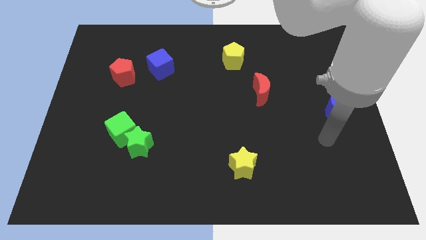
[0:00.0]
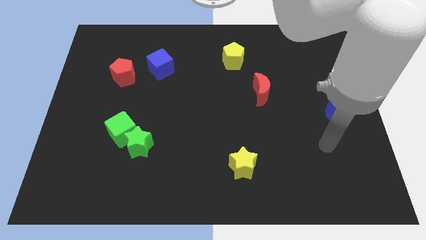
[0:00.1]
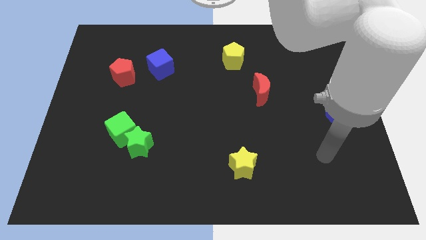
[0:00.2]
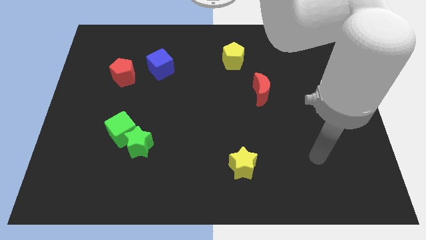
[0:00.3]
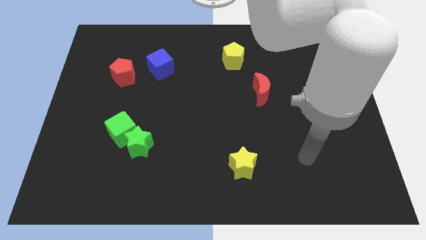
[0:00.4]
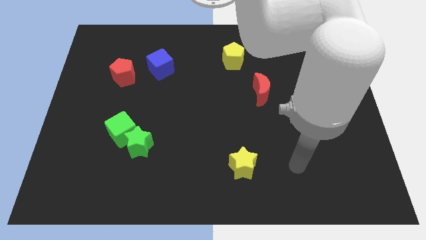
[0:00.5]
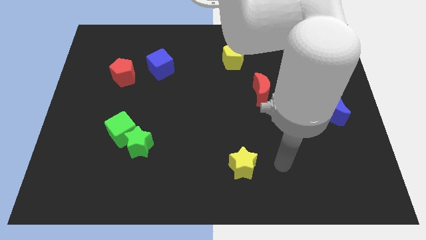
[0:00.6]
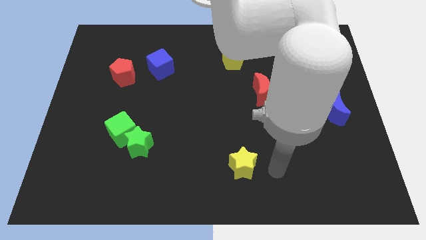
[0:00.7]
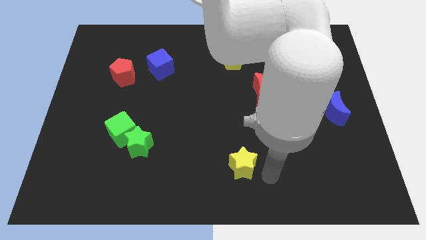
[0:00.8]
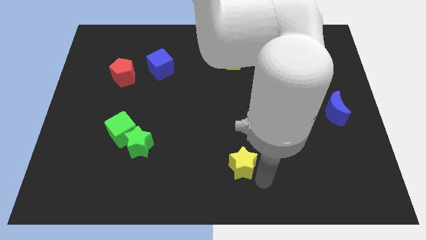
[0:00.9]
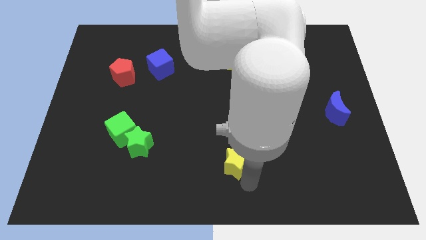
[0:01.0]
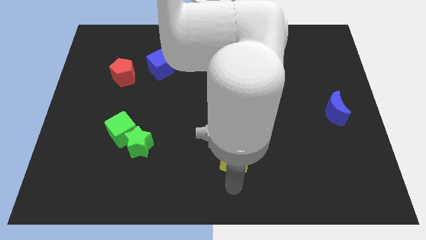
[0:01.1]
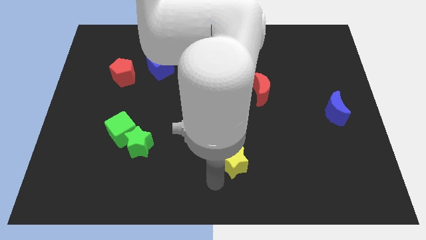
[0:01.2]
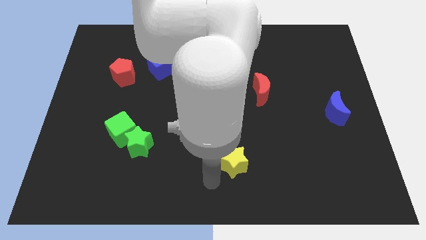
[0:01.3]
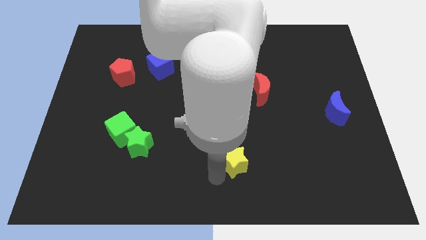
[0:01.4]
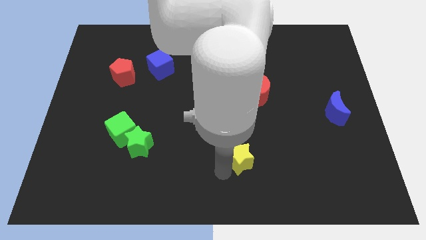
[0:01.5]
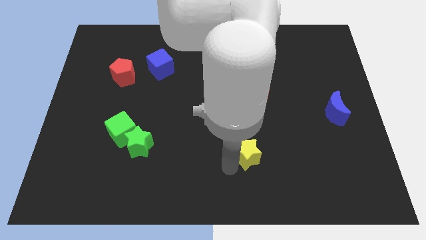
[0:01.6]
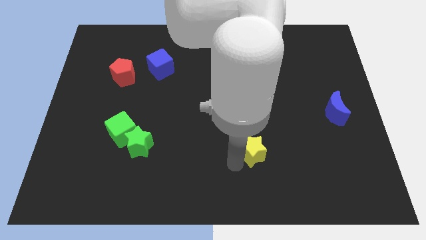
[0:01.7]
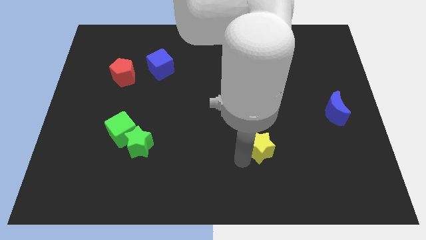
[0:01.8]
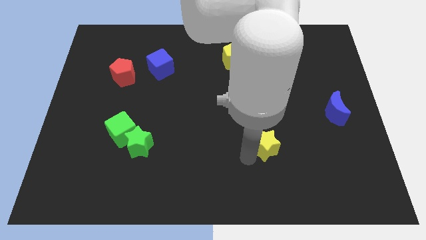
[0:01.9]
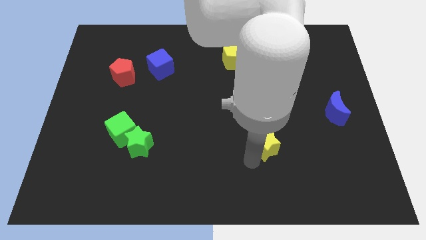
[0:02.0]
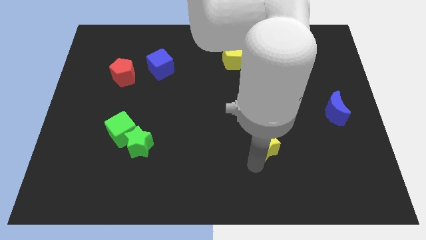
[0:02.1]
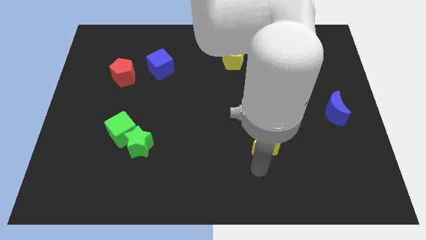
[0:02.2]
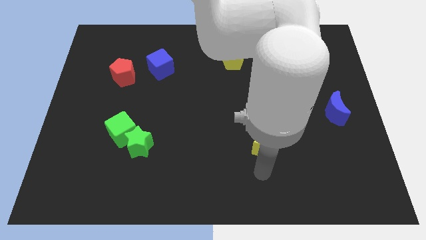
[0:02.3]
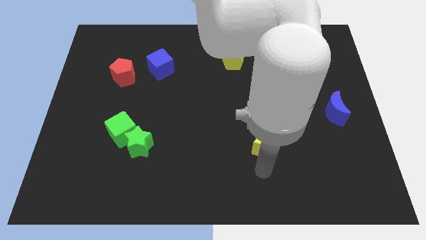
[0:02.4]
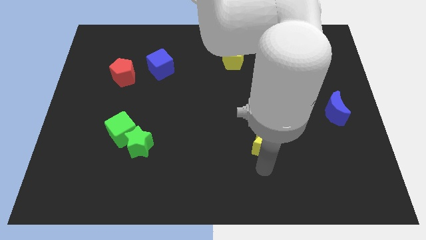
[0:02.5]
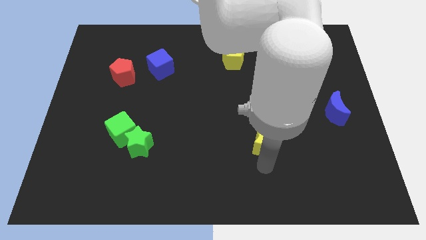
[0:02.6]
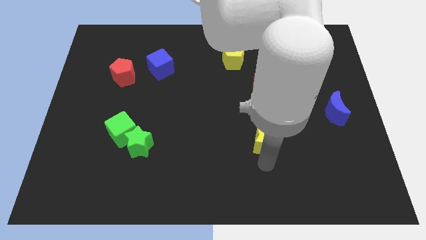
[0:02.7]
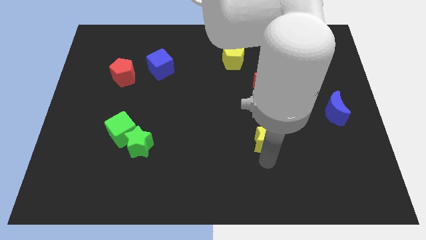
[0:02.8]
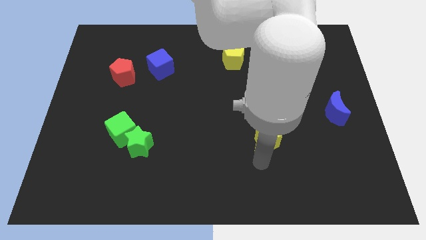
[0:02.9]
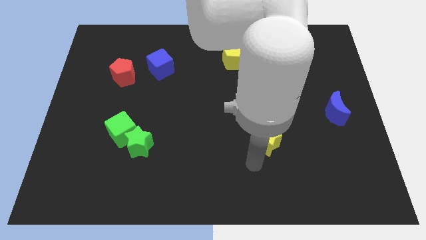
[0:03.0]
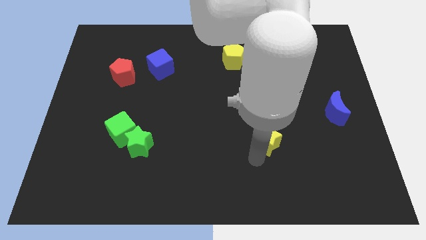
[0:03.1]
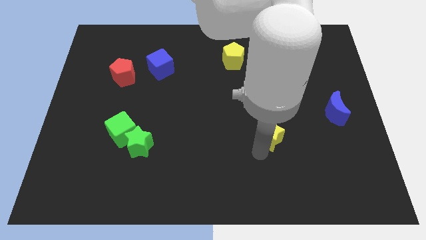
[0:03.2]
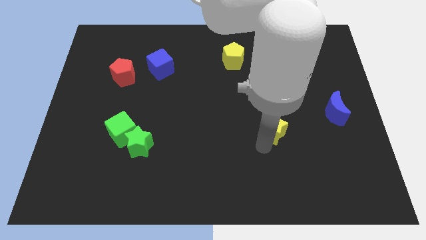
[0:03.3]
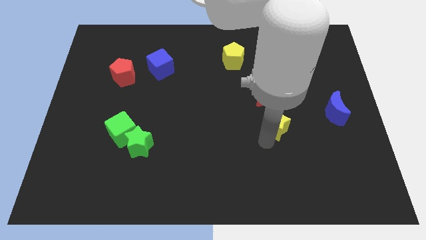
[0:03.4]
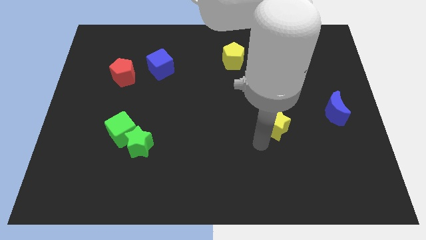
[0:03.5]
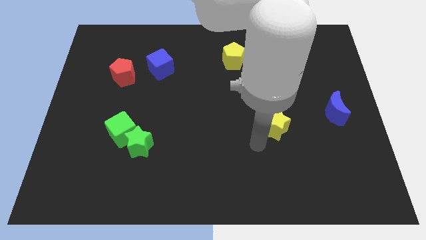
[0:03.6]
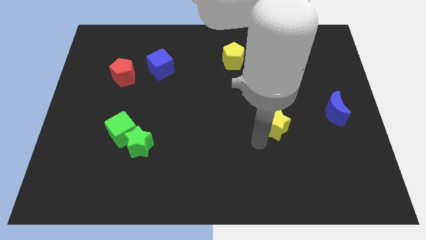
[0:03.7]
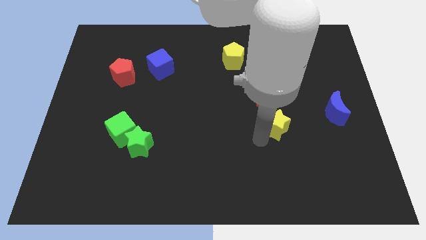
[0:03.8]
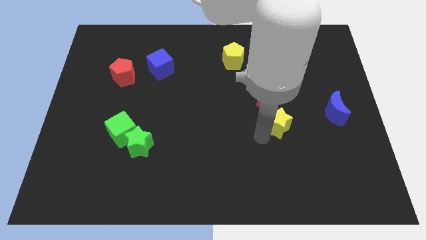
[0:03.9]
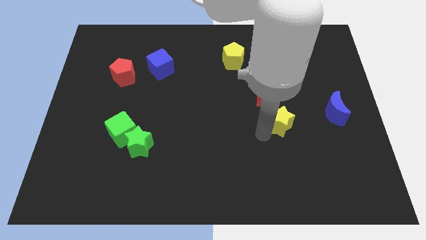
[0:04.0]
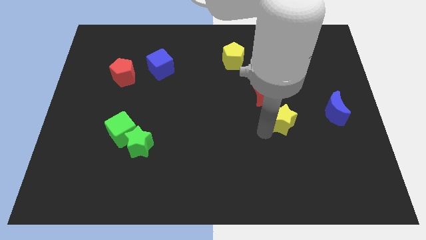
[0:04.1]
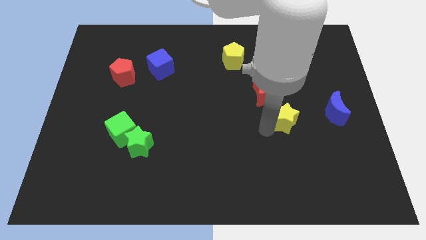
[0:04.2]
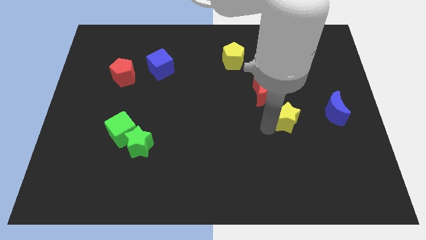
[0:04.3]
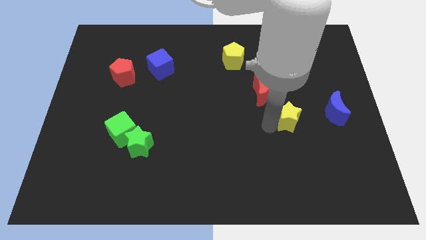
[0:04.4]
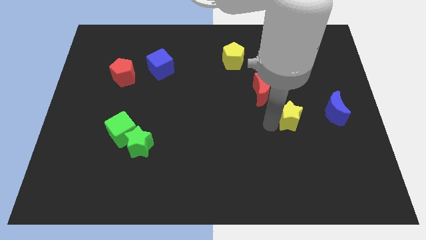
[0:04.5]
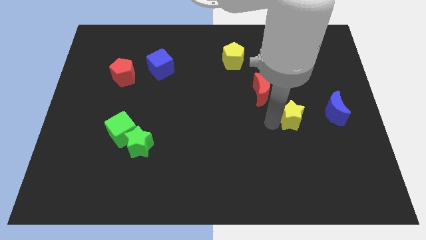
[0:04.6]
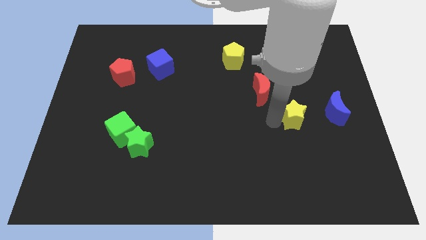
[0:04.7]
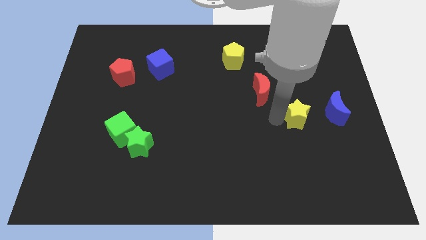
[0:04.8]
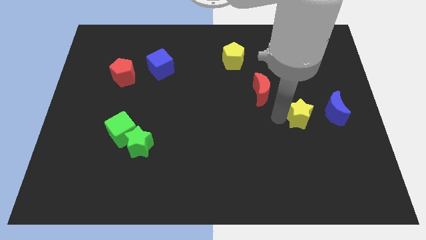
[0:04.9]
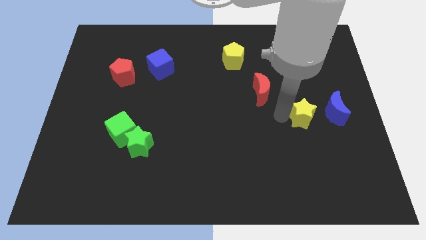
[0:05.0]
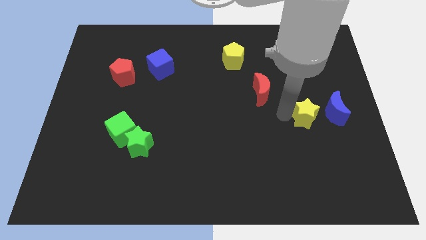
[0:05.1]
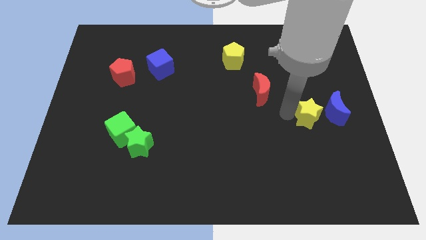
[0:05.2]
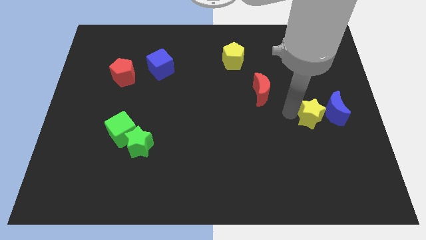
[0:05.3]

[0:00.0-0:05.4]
push the yellow star diagonally up and to the left of the blue moon

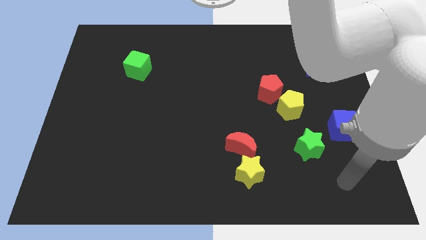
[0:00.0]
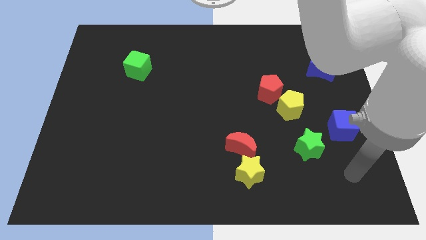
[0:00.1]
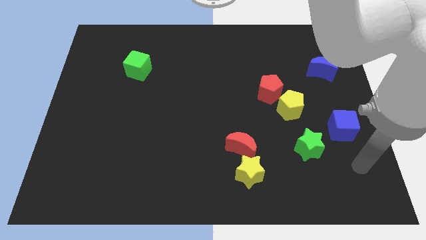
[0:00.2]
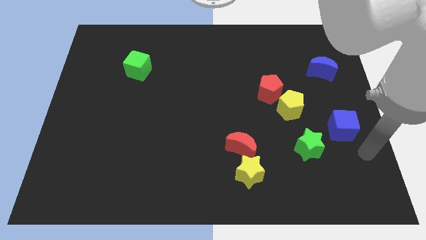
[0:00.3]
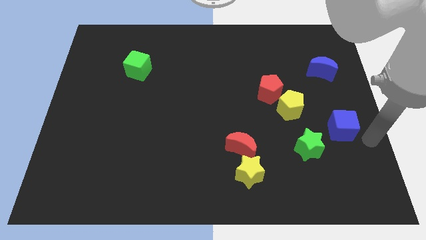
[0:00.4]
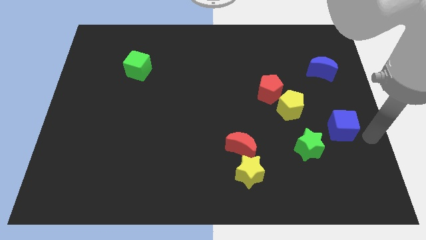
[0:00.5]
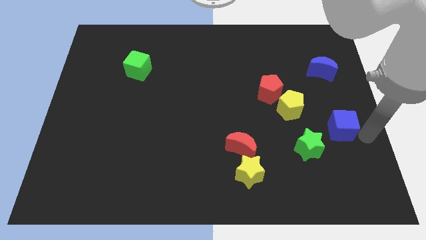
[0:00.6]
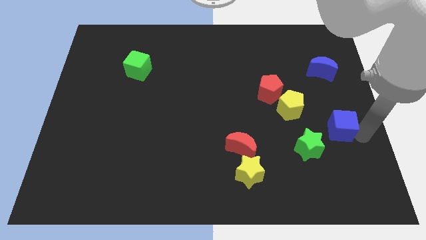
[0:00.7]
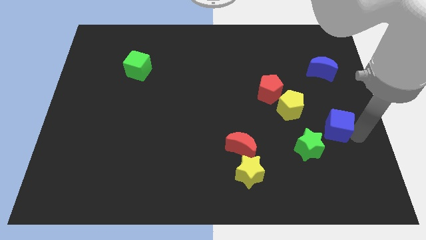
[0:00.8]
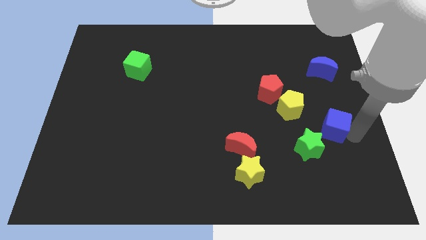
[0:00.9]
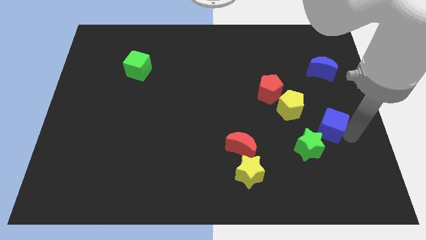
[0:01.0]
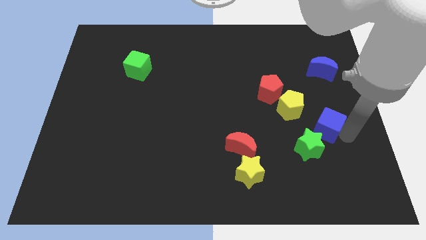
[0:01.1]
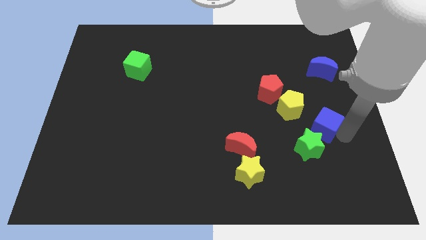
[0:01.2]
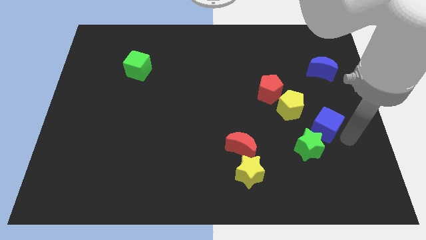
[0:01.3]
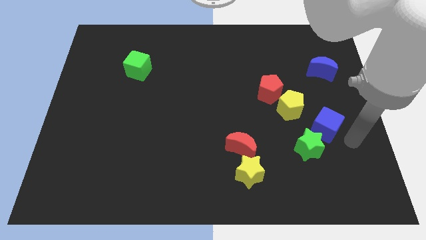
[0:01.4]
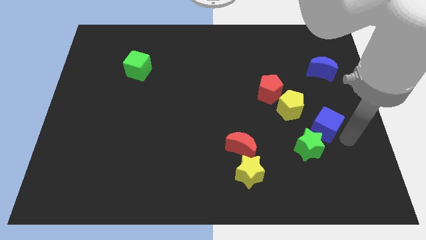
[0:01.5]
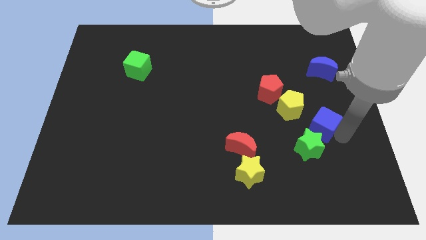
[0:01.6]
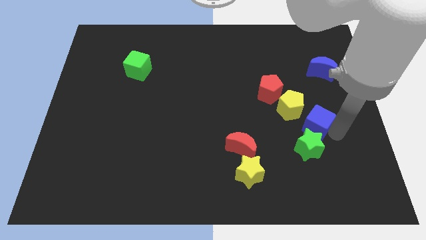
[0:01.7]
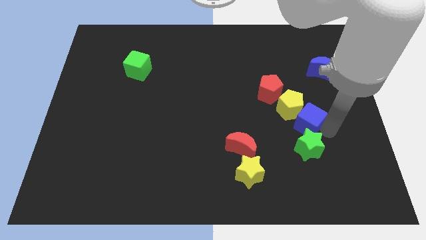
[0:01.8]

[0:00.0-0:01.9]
slide the blue cube to the bottom right of the red pentagon

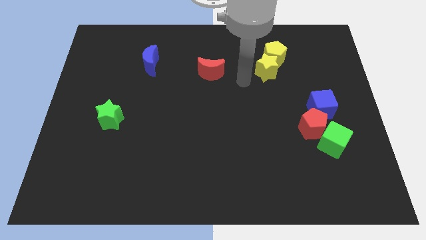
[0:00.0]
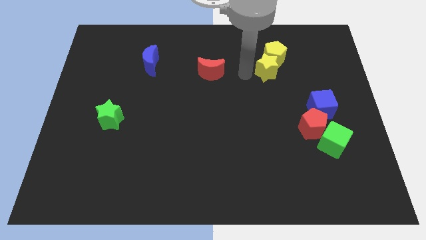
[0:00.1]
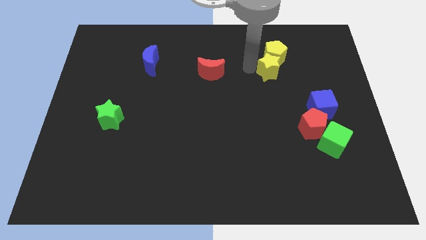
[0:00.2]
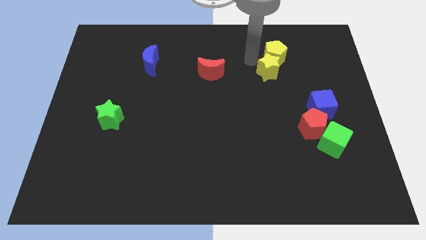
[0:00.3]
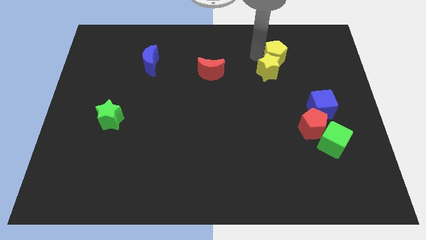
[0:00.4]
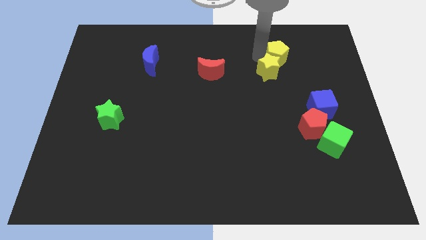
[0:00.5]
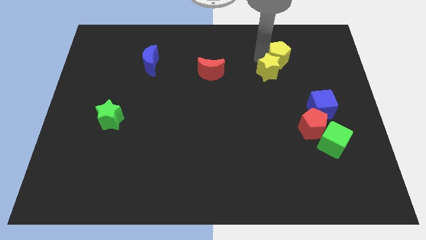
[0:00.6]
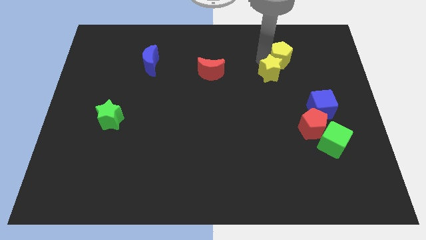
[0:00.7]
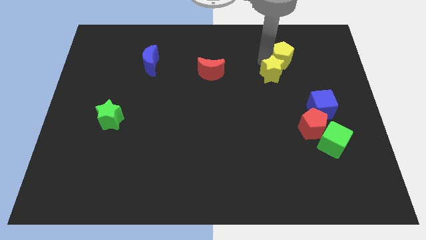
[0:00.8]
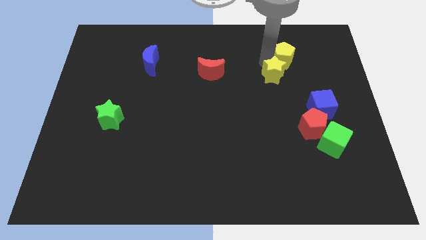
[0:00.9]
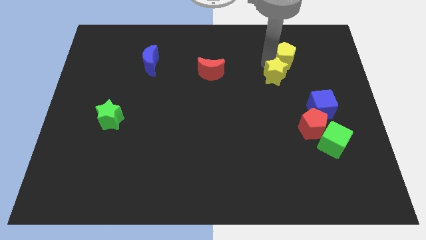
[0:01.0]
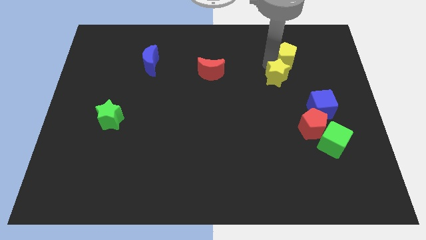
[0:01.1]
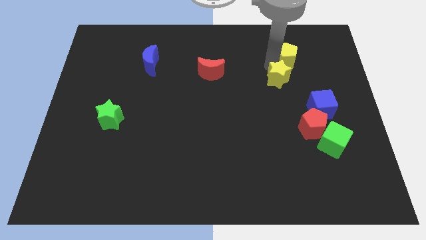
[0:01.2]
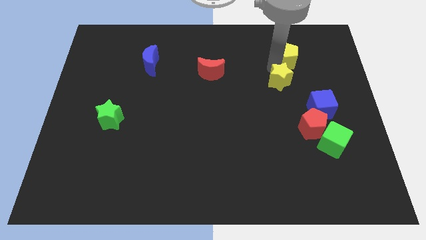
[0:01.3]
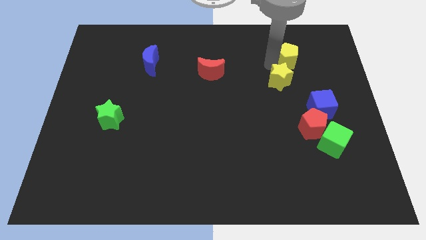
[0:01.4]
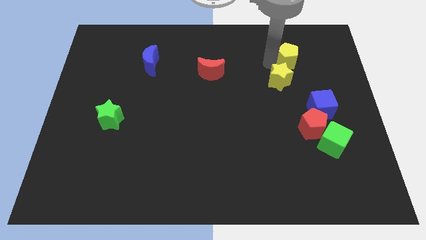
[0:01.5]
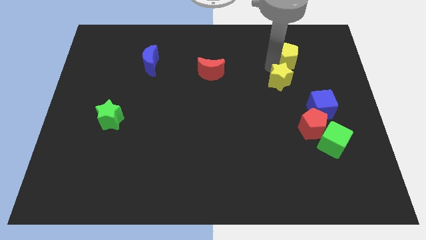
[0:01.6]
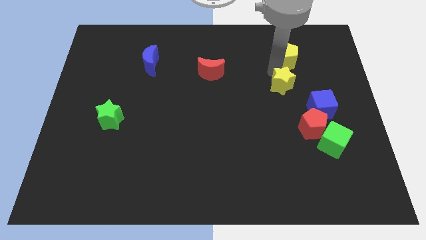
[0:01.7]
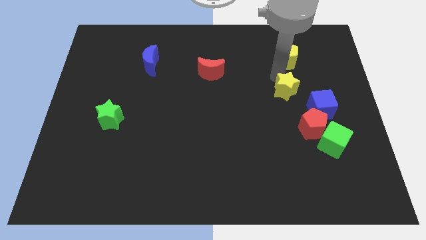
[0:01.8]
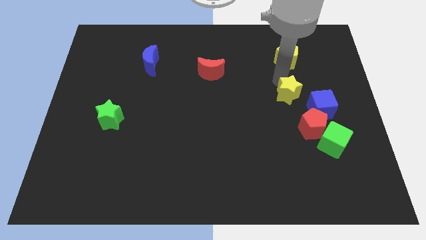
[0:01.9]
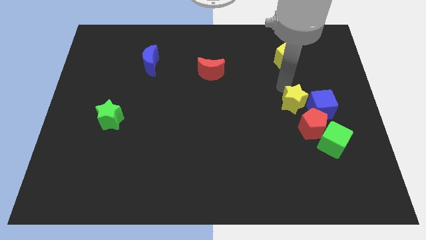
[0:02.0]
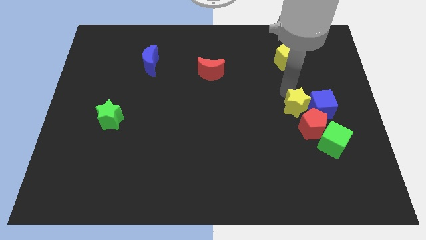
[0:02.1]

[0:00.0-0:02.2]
push the yellow star to the top left side of the green cube
